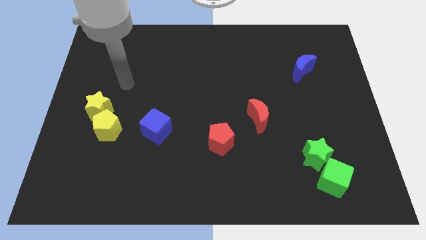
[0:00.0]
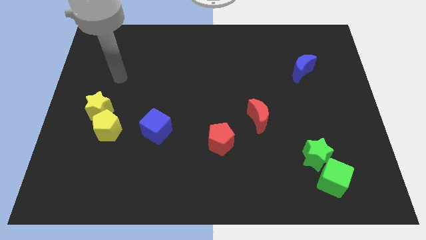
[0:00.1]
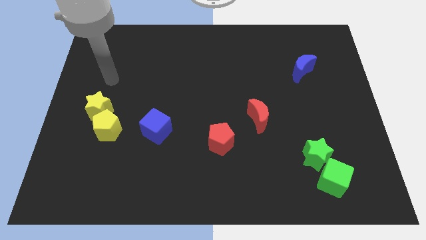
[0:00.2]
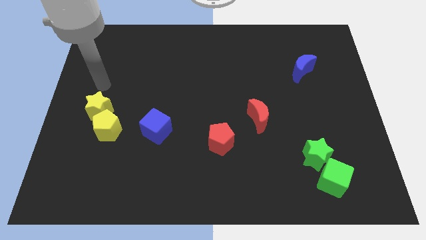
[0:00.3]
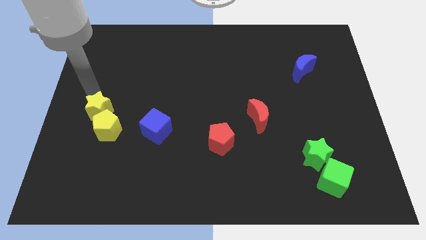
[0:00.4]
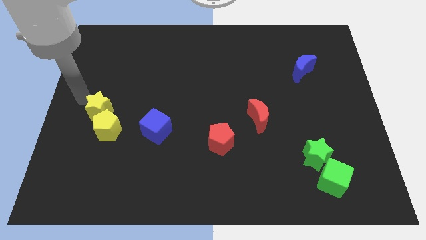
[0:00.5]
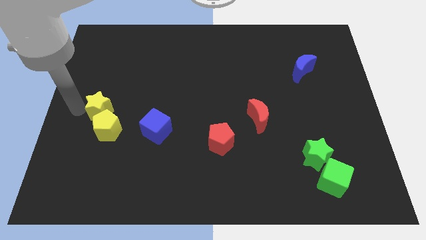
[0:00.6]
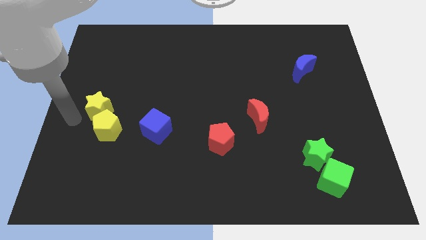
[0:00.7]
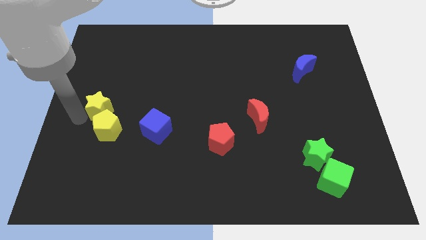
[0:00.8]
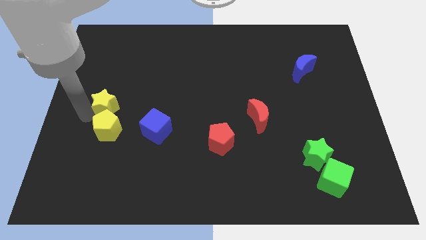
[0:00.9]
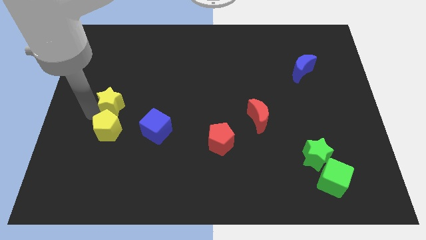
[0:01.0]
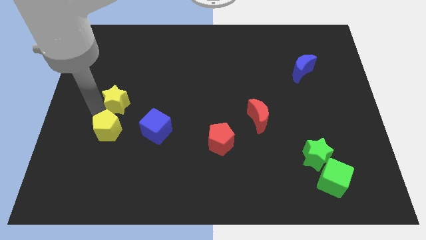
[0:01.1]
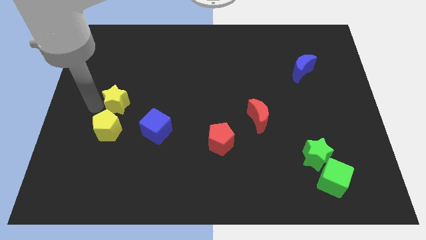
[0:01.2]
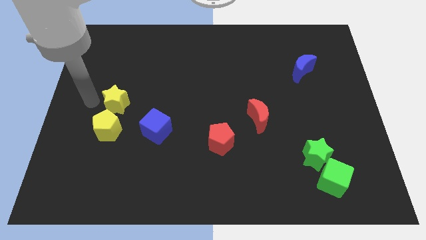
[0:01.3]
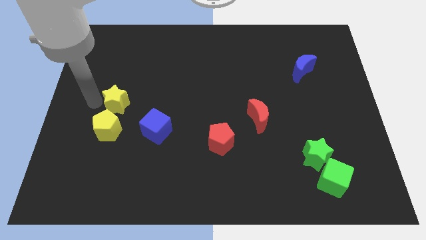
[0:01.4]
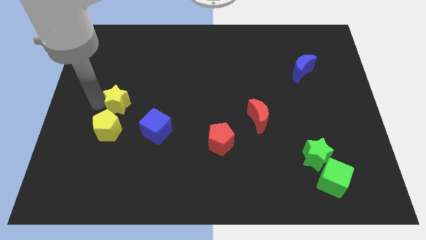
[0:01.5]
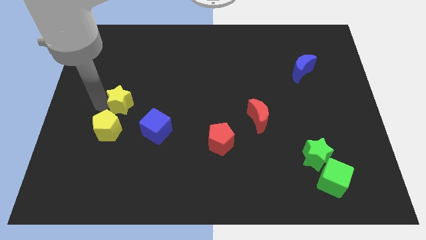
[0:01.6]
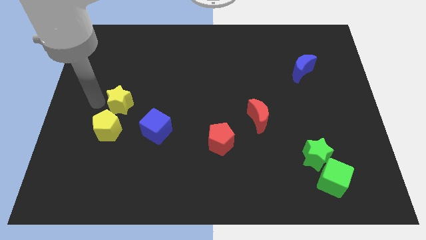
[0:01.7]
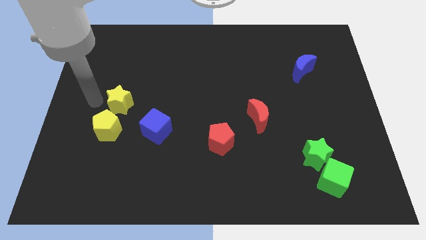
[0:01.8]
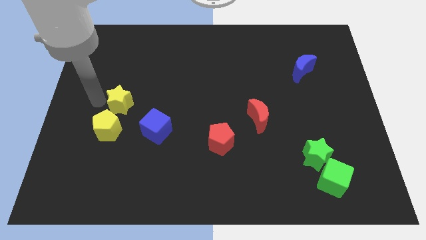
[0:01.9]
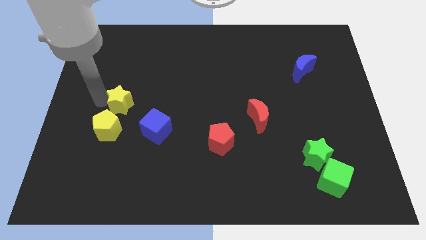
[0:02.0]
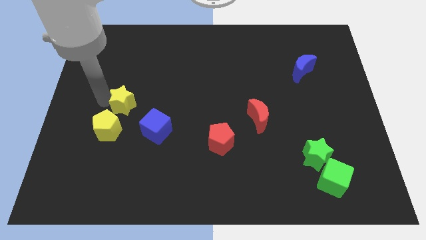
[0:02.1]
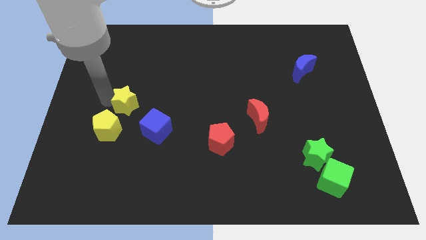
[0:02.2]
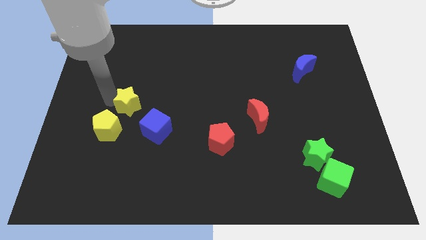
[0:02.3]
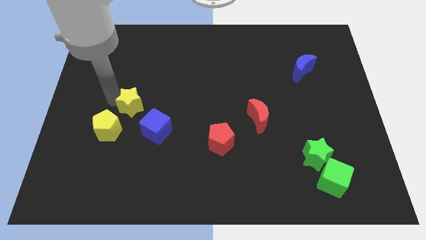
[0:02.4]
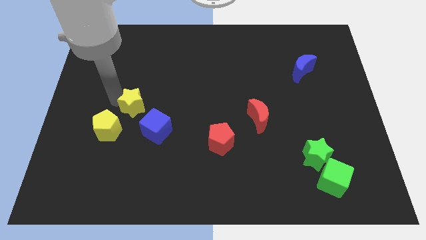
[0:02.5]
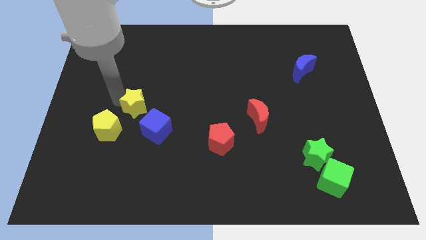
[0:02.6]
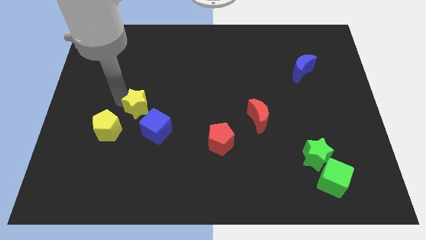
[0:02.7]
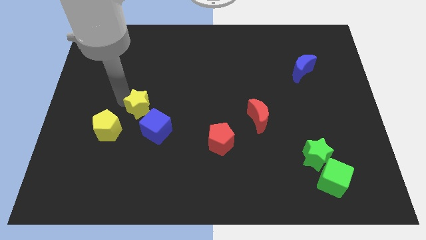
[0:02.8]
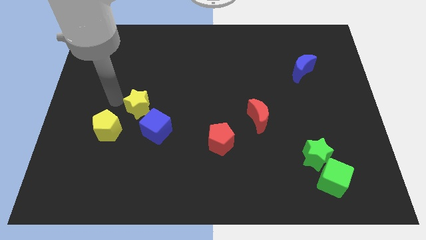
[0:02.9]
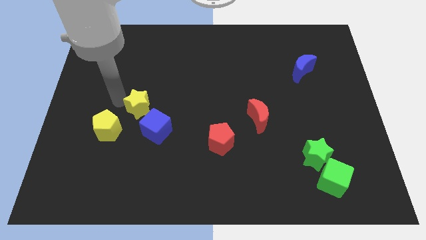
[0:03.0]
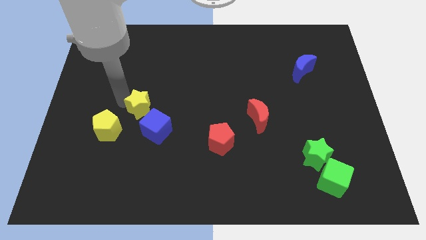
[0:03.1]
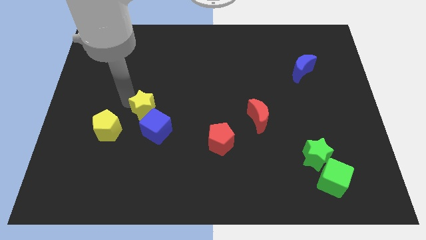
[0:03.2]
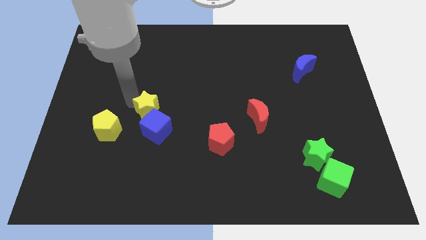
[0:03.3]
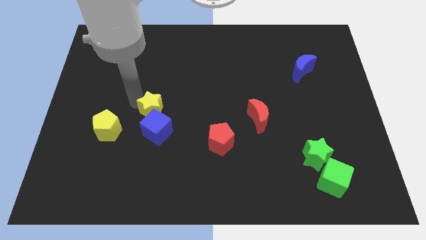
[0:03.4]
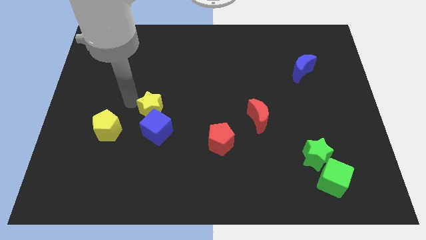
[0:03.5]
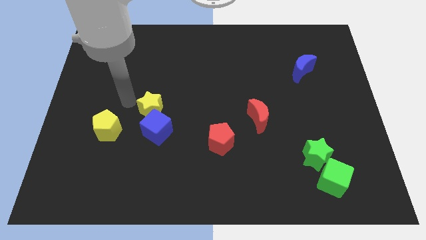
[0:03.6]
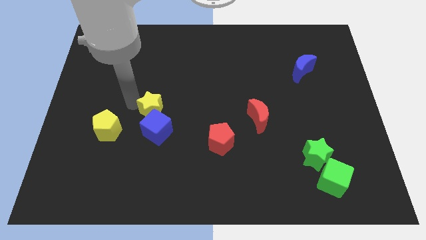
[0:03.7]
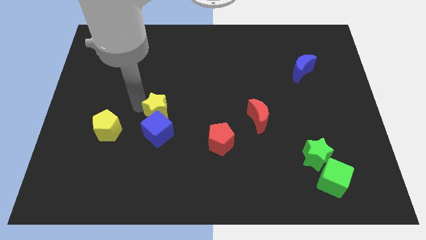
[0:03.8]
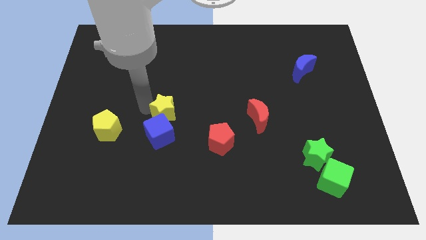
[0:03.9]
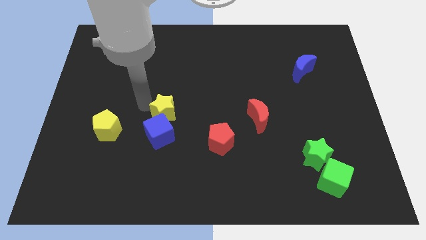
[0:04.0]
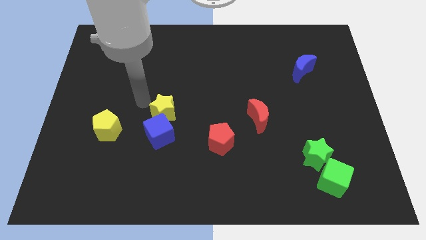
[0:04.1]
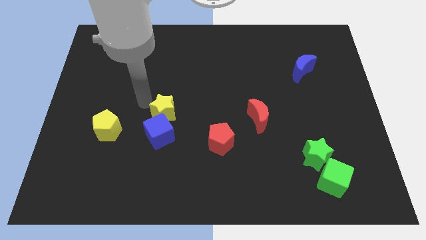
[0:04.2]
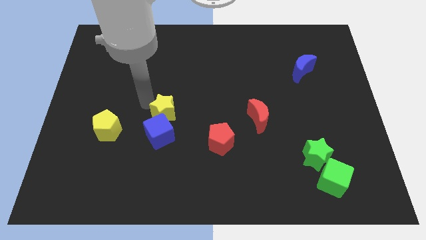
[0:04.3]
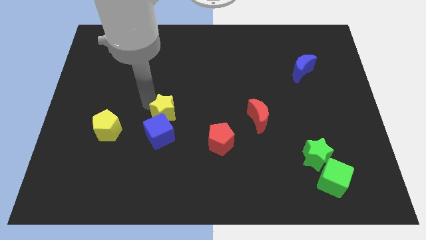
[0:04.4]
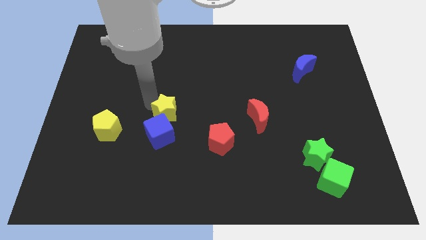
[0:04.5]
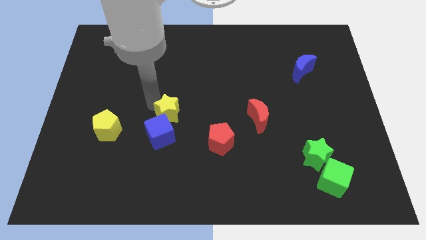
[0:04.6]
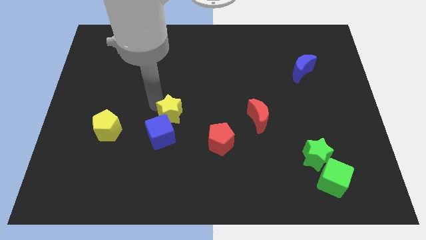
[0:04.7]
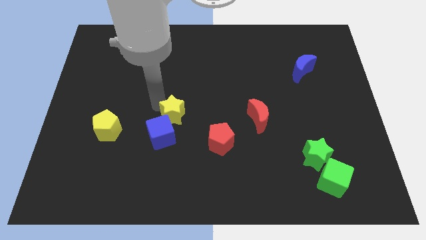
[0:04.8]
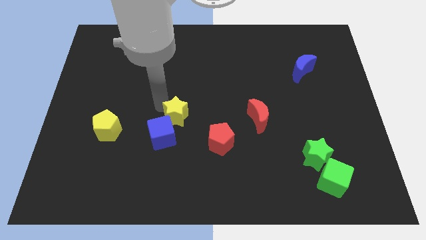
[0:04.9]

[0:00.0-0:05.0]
move the yellow star diagonally up and to the left of the red pentagon

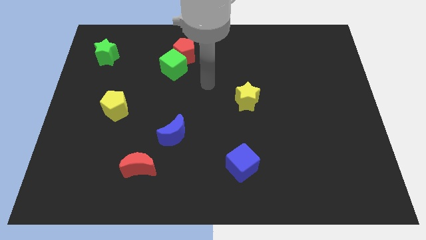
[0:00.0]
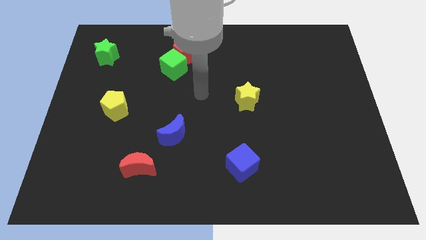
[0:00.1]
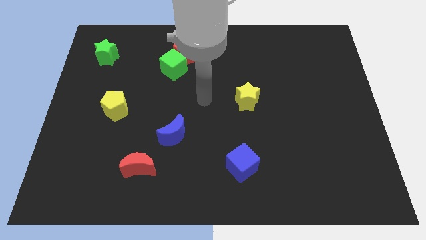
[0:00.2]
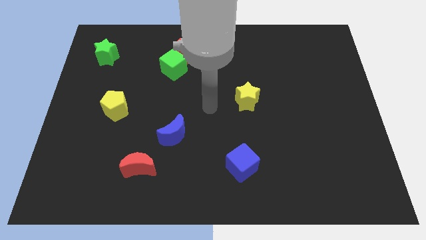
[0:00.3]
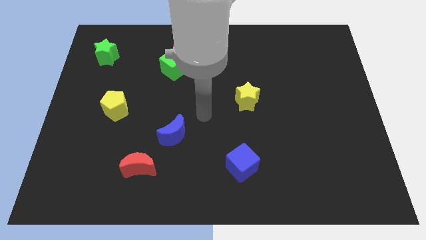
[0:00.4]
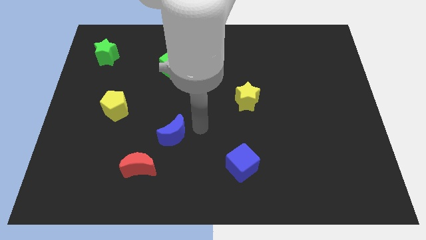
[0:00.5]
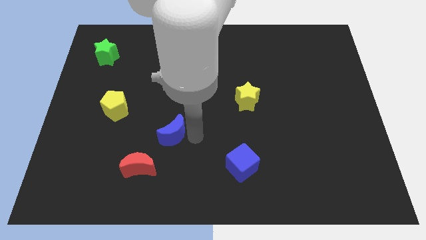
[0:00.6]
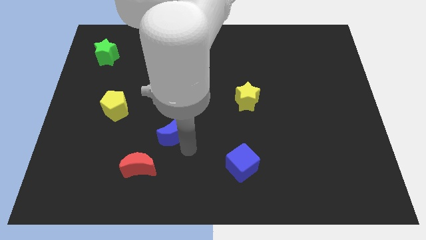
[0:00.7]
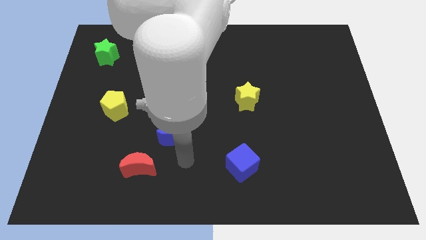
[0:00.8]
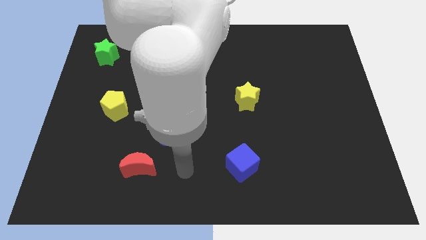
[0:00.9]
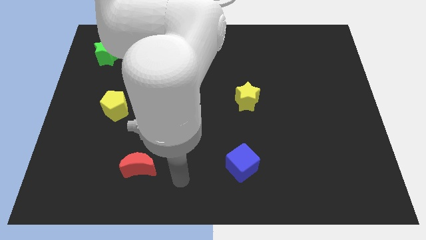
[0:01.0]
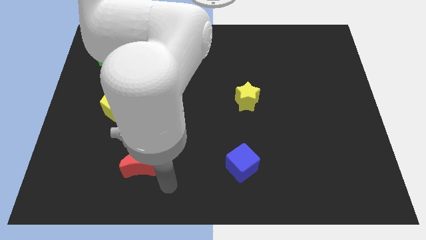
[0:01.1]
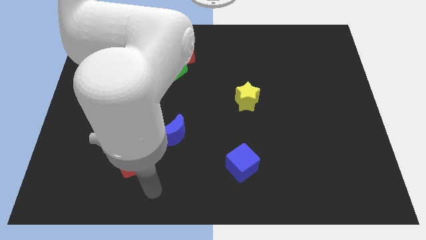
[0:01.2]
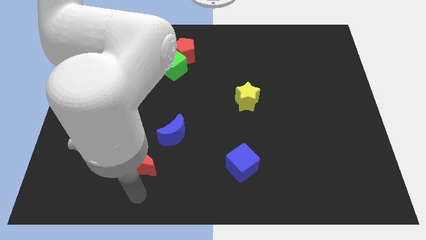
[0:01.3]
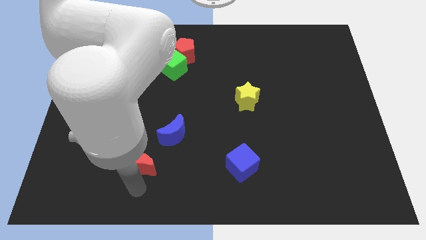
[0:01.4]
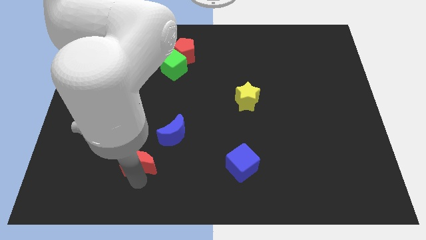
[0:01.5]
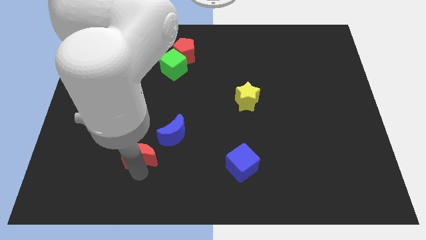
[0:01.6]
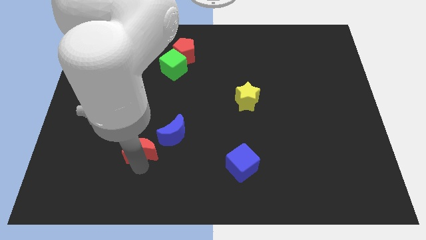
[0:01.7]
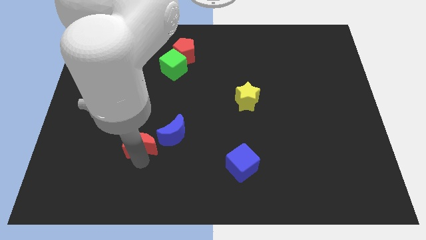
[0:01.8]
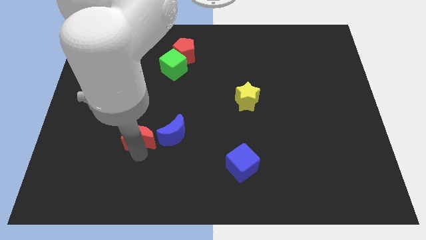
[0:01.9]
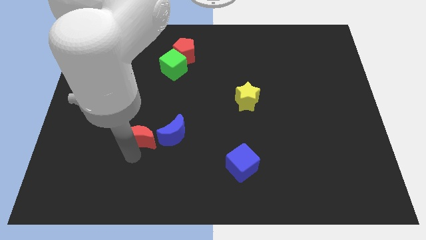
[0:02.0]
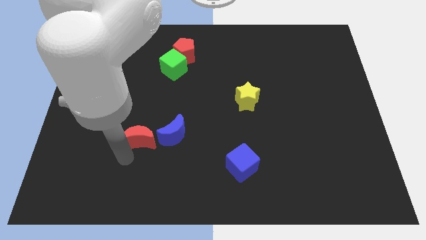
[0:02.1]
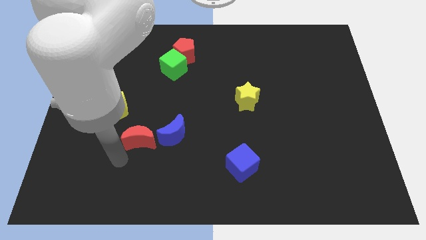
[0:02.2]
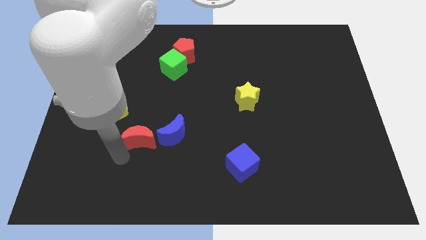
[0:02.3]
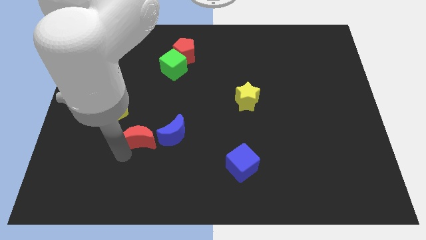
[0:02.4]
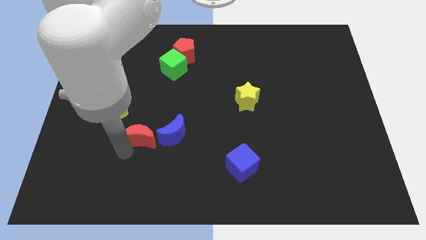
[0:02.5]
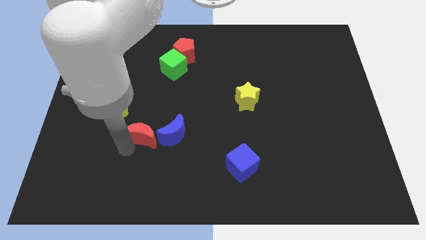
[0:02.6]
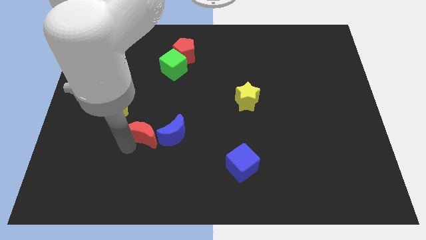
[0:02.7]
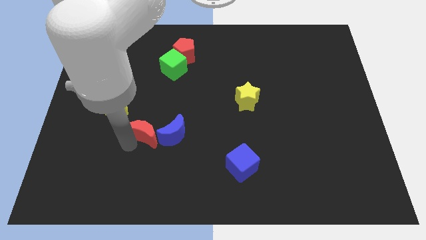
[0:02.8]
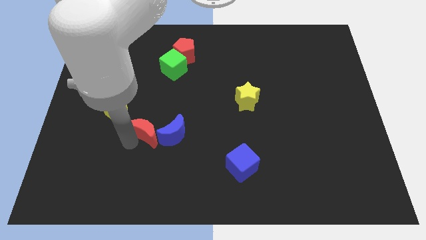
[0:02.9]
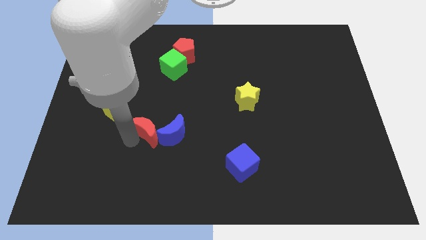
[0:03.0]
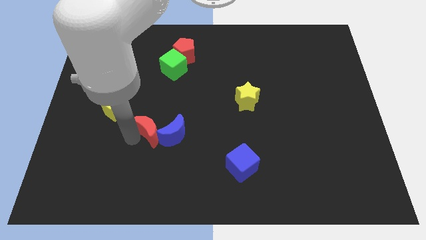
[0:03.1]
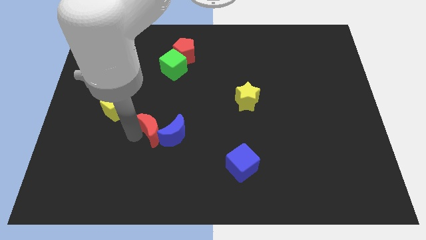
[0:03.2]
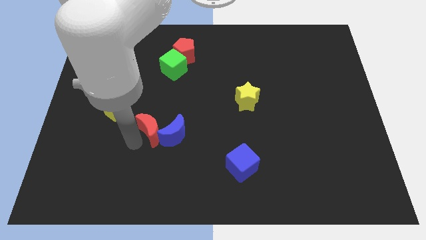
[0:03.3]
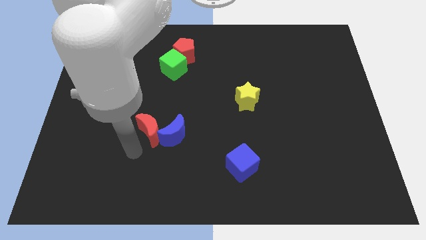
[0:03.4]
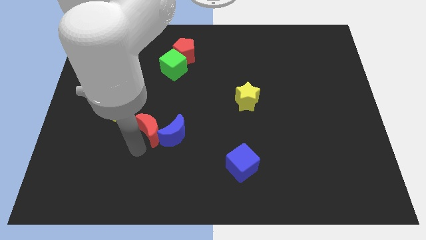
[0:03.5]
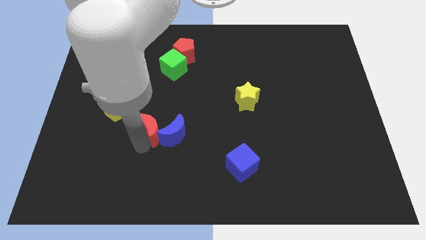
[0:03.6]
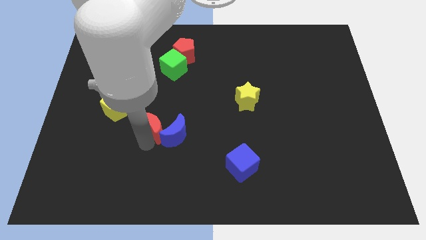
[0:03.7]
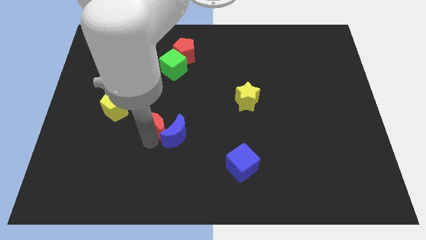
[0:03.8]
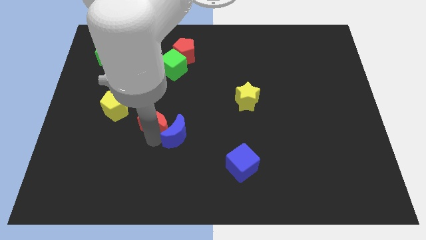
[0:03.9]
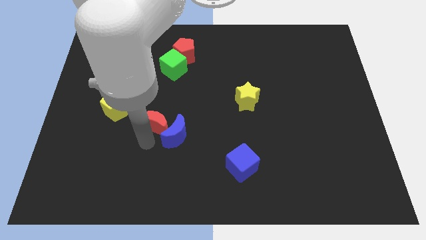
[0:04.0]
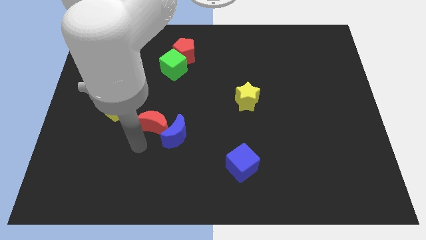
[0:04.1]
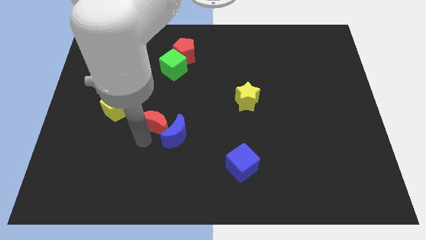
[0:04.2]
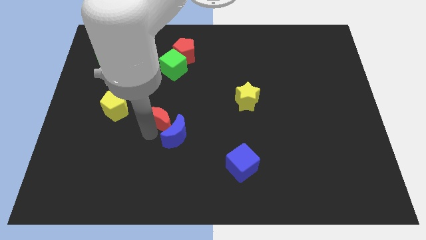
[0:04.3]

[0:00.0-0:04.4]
slide the red moon above the blue moon
